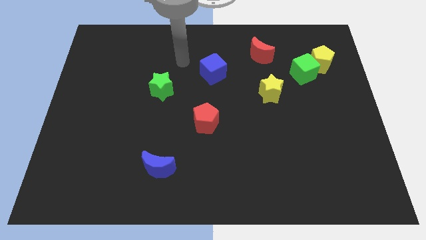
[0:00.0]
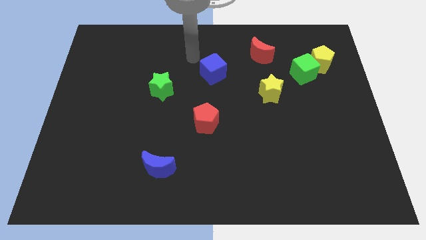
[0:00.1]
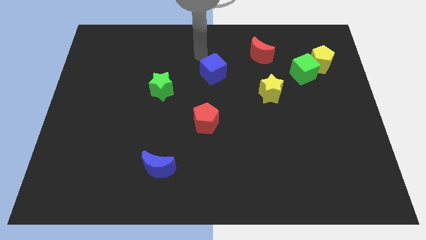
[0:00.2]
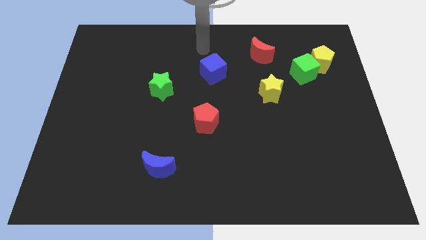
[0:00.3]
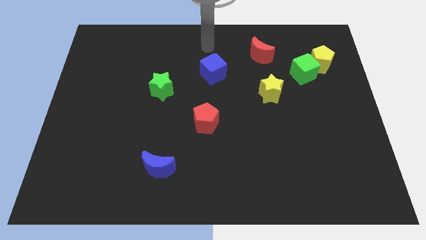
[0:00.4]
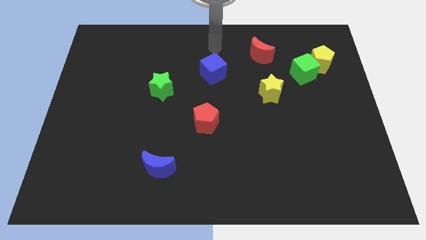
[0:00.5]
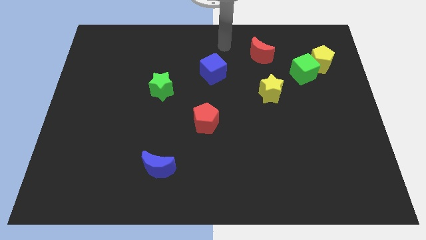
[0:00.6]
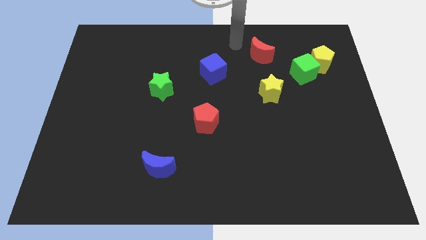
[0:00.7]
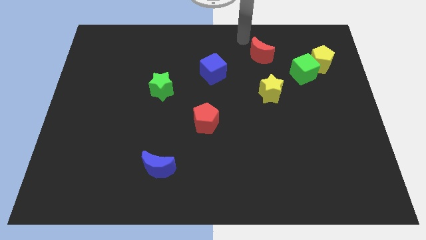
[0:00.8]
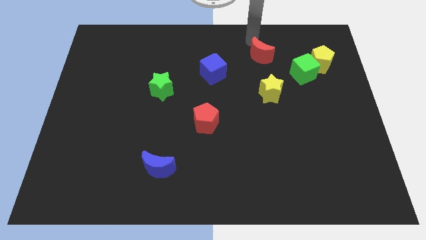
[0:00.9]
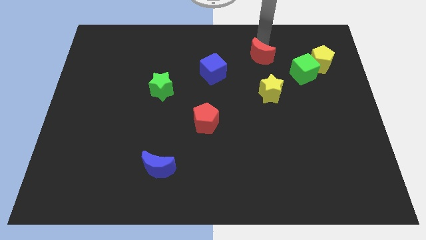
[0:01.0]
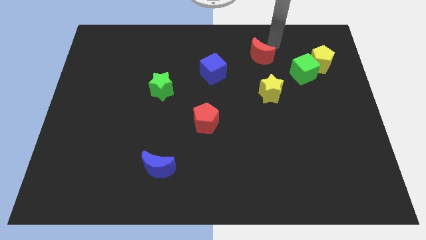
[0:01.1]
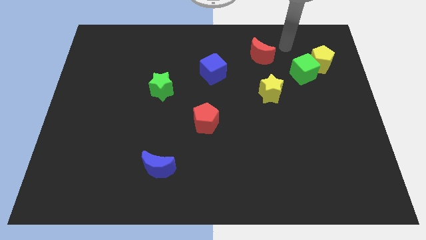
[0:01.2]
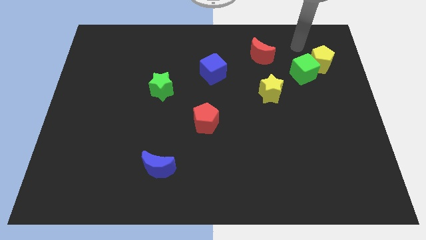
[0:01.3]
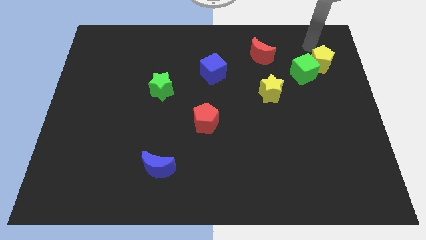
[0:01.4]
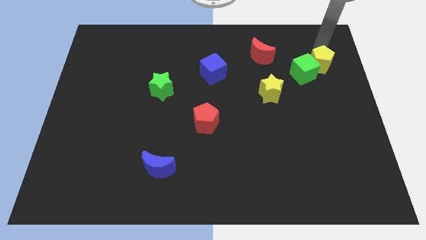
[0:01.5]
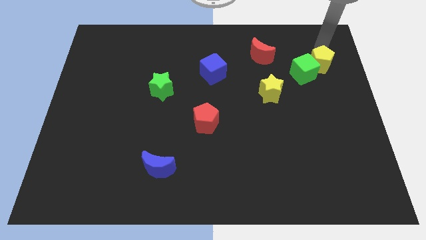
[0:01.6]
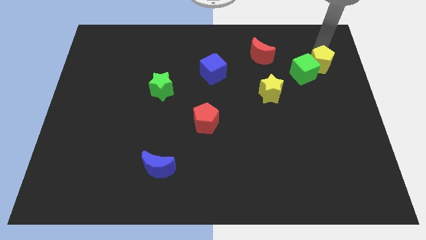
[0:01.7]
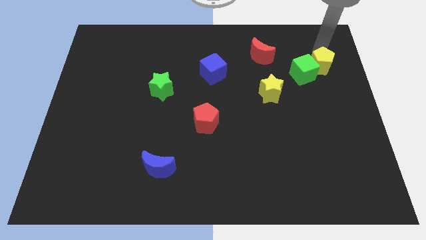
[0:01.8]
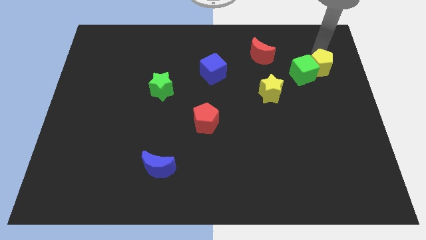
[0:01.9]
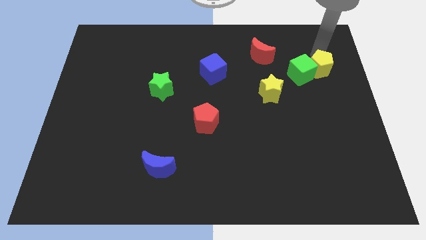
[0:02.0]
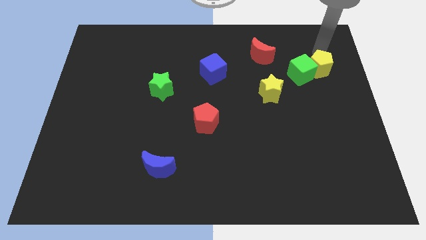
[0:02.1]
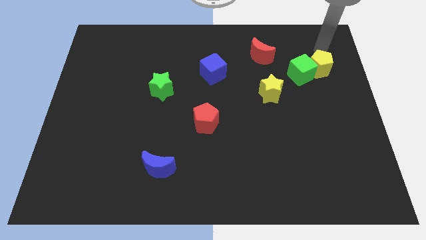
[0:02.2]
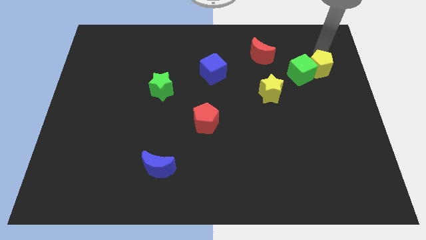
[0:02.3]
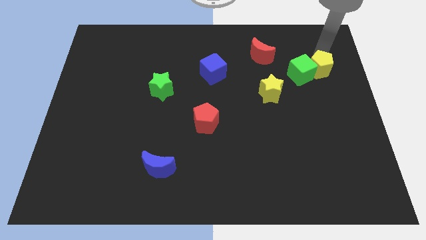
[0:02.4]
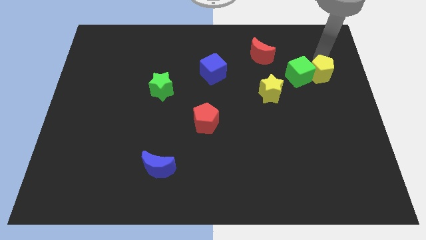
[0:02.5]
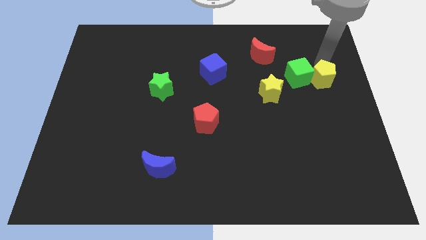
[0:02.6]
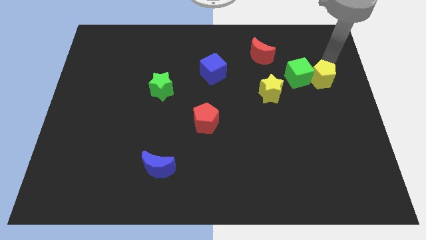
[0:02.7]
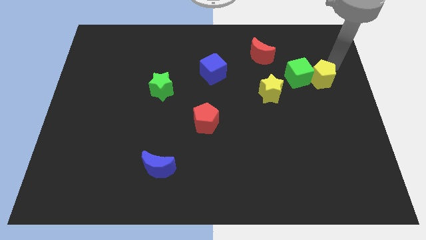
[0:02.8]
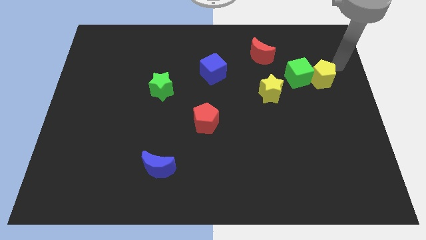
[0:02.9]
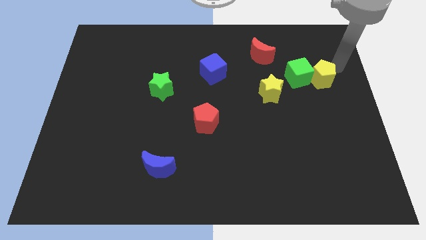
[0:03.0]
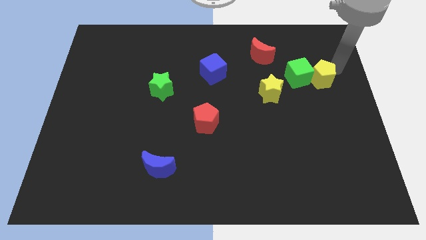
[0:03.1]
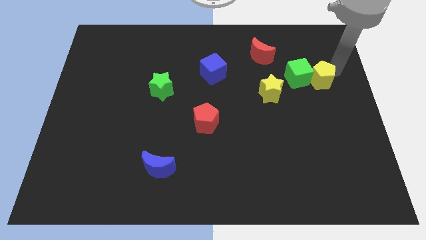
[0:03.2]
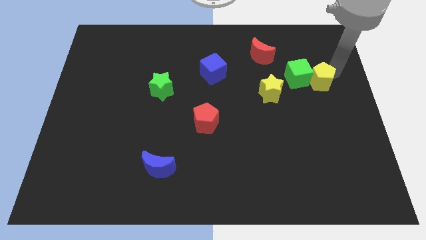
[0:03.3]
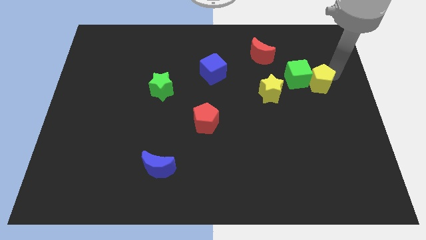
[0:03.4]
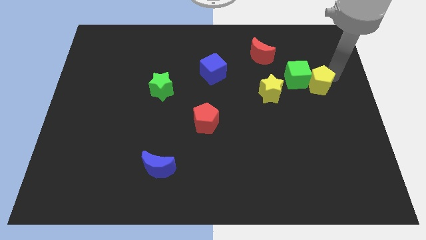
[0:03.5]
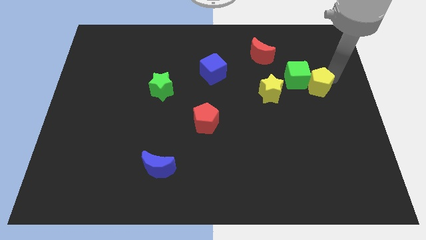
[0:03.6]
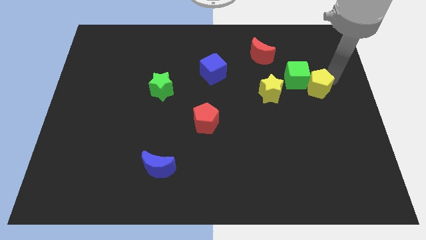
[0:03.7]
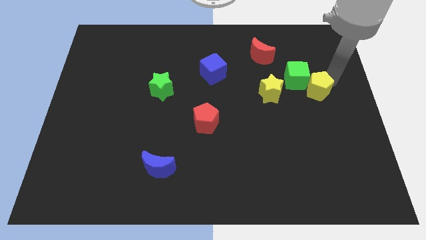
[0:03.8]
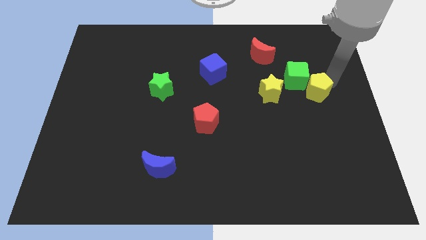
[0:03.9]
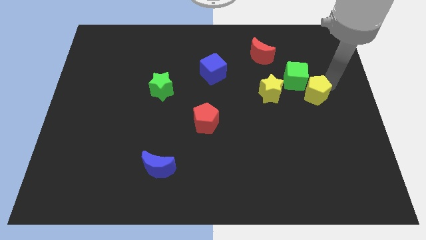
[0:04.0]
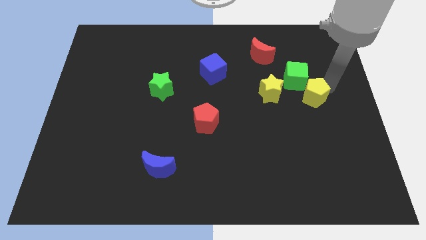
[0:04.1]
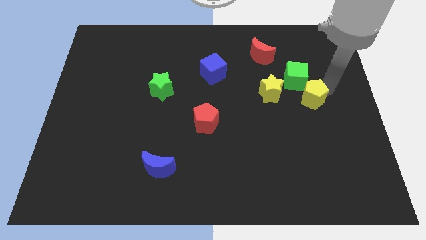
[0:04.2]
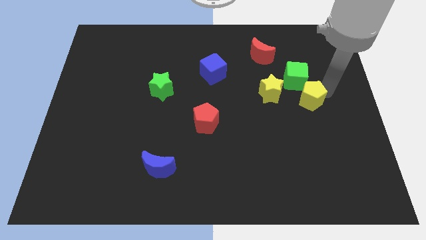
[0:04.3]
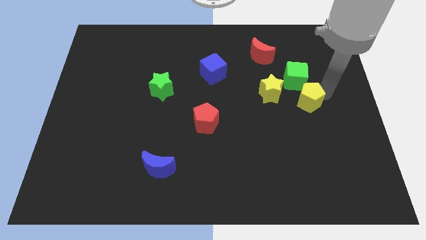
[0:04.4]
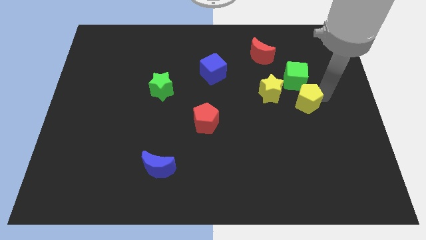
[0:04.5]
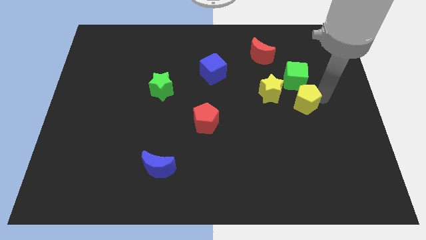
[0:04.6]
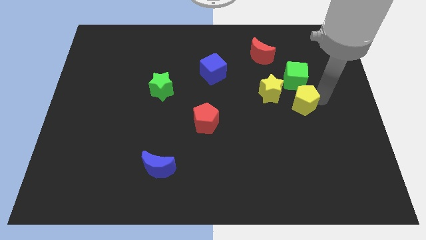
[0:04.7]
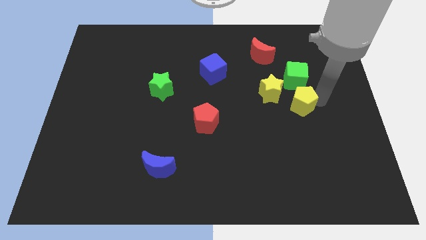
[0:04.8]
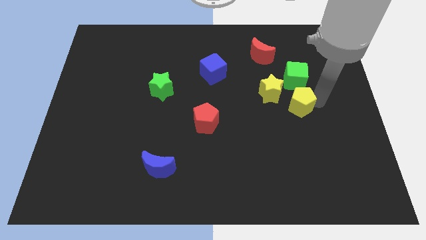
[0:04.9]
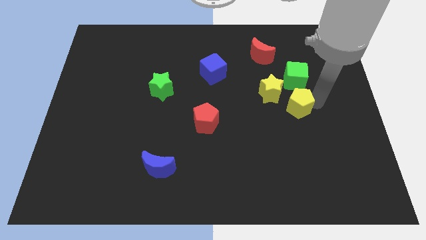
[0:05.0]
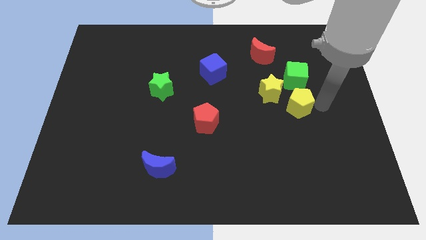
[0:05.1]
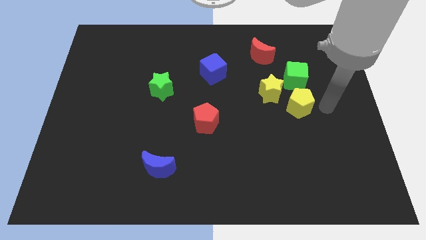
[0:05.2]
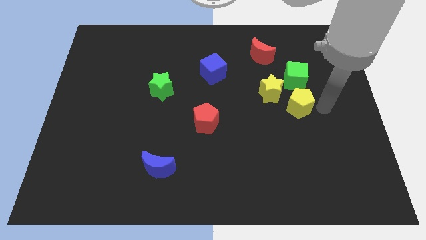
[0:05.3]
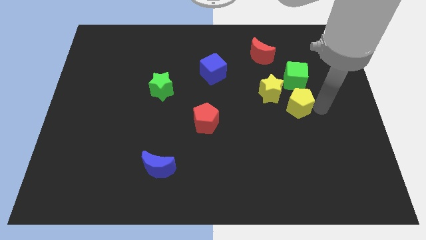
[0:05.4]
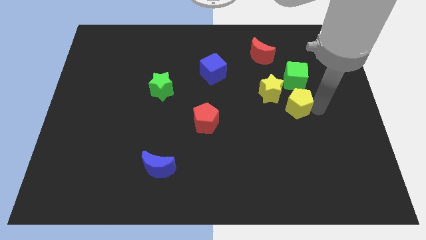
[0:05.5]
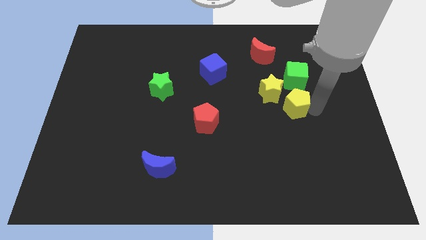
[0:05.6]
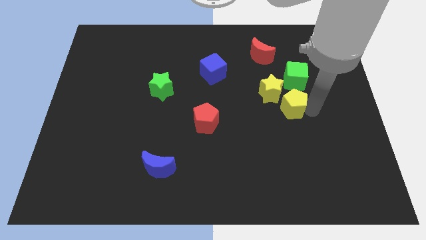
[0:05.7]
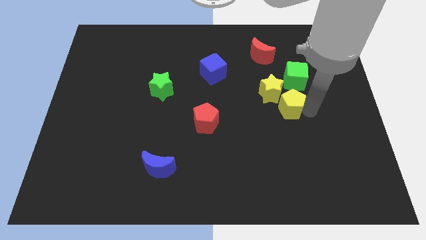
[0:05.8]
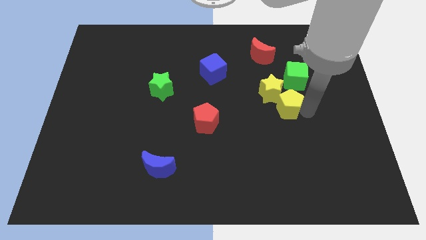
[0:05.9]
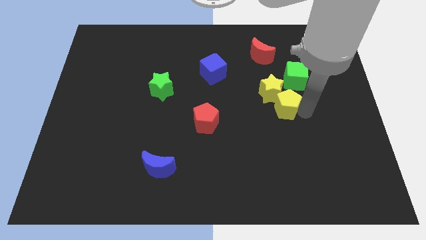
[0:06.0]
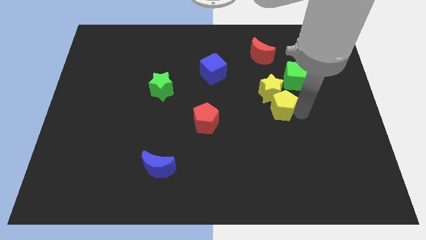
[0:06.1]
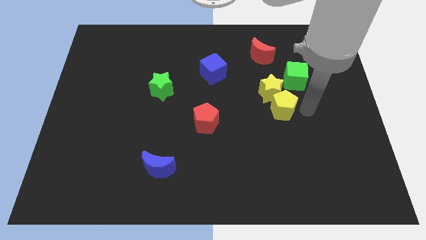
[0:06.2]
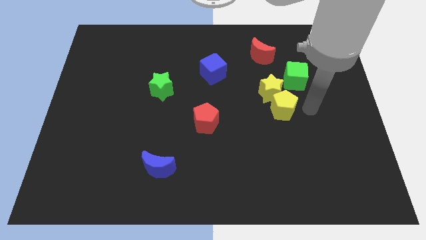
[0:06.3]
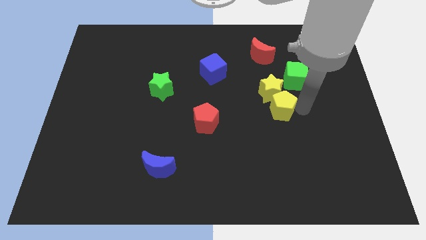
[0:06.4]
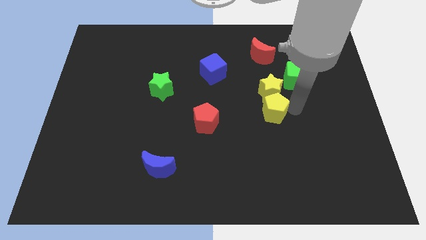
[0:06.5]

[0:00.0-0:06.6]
slide the yellow pentagon diagonally down and to the left of the yellow star
